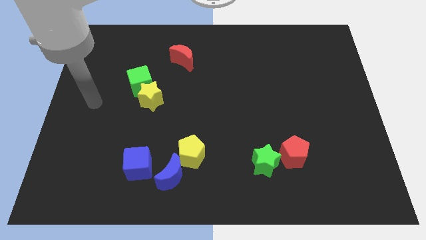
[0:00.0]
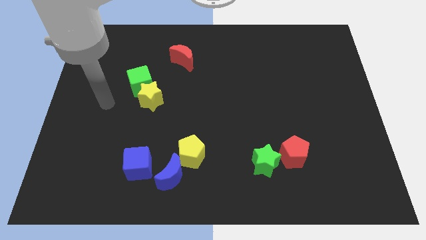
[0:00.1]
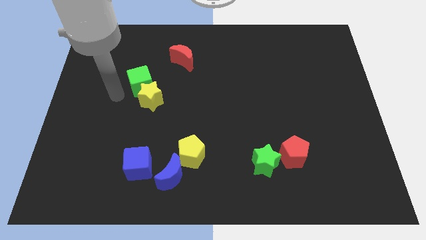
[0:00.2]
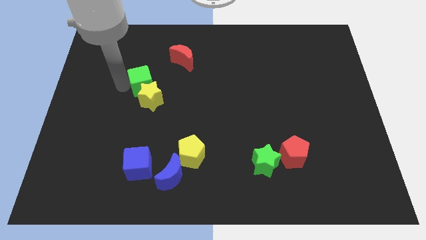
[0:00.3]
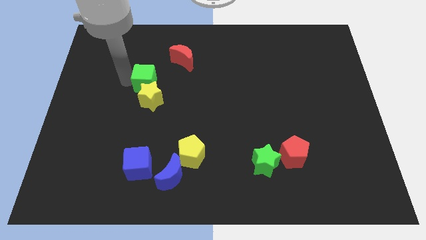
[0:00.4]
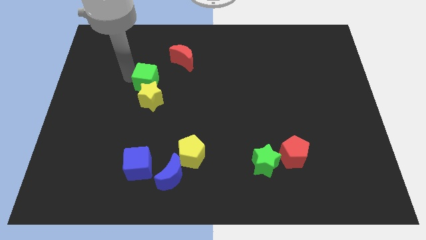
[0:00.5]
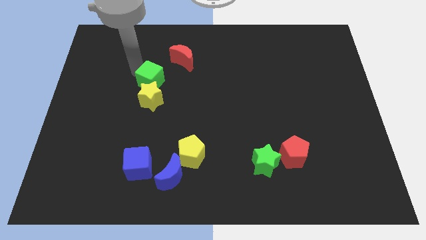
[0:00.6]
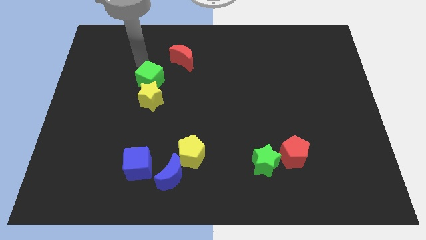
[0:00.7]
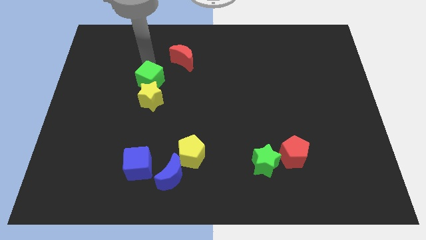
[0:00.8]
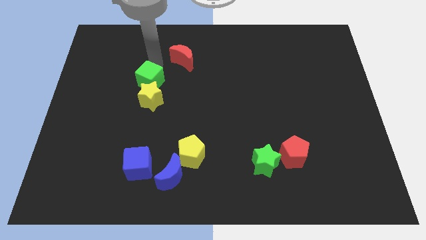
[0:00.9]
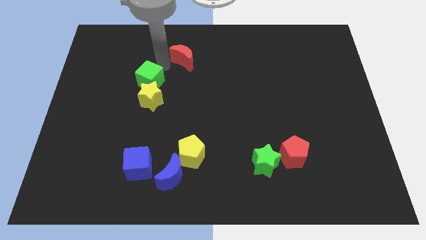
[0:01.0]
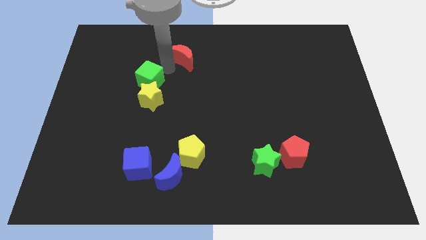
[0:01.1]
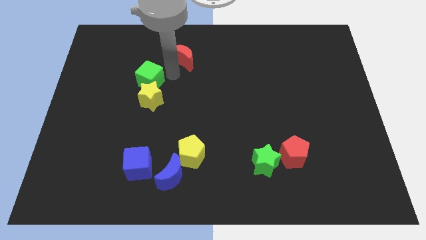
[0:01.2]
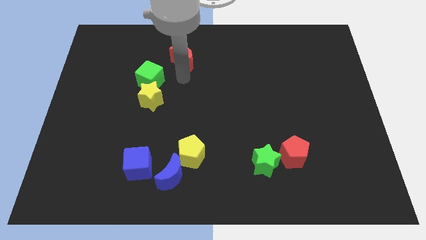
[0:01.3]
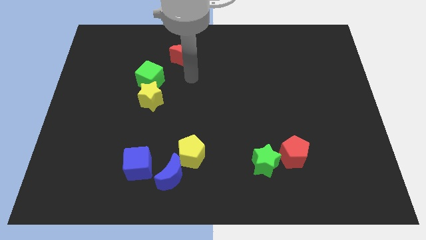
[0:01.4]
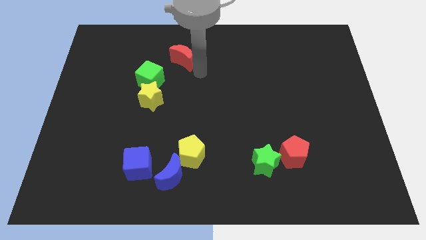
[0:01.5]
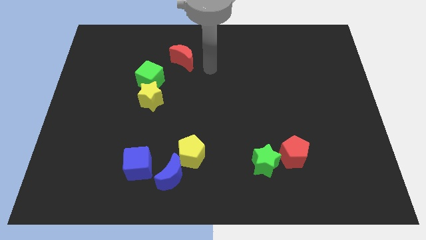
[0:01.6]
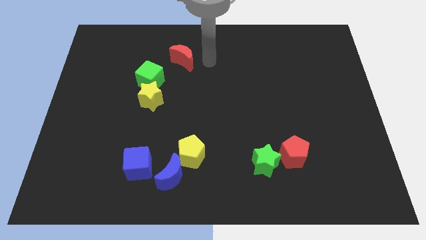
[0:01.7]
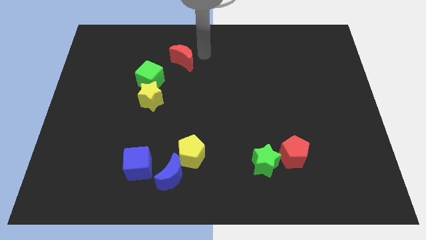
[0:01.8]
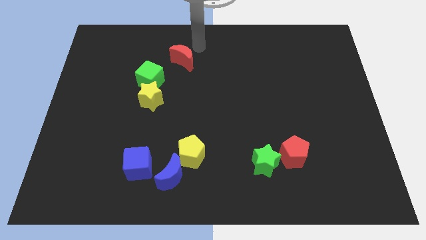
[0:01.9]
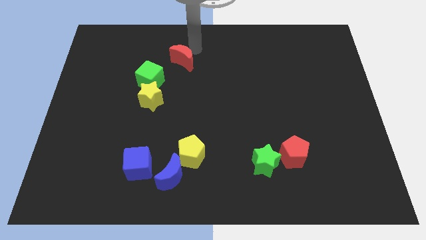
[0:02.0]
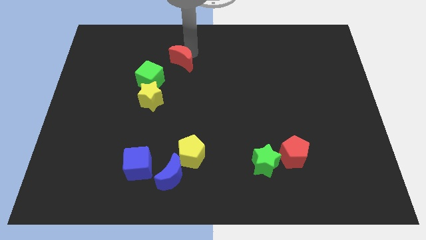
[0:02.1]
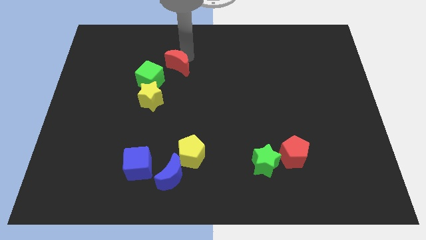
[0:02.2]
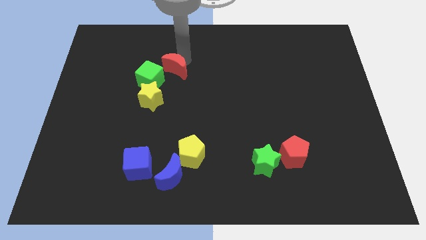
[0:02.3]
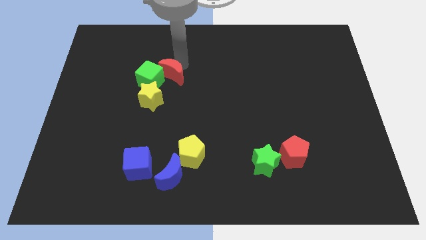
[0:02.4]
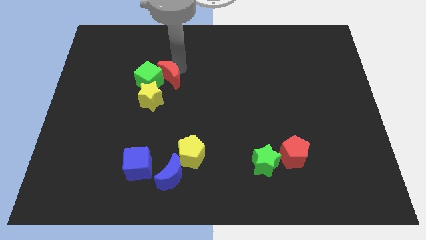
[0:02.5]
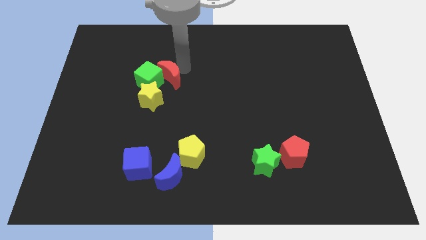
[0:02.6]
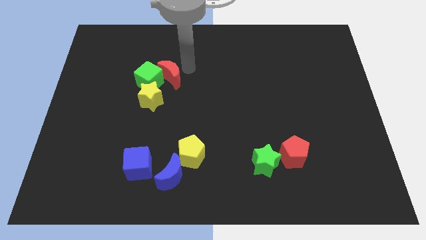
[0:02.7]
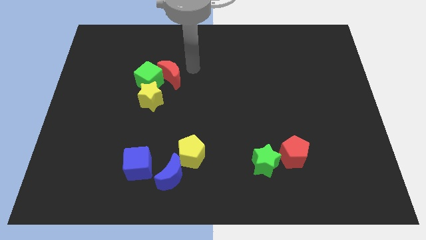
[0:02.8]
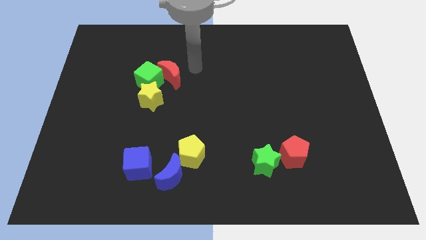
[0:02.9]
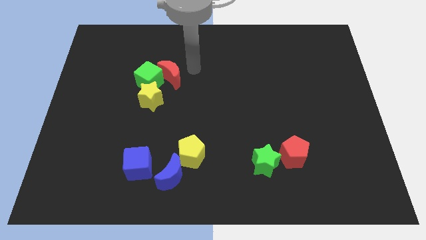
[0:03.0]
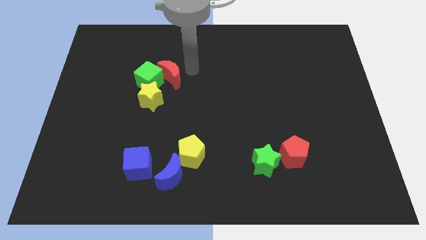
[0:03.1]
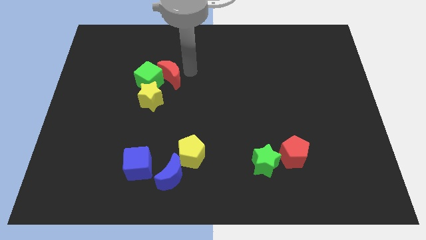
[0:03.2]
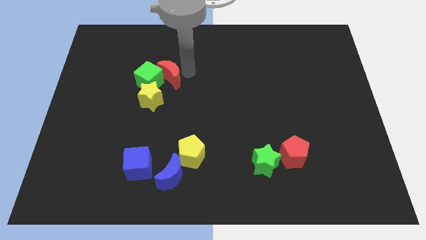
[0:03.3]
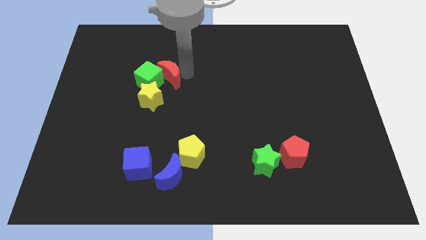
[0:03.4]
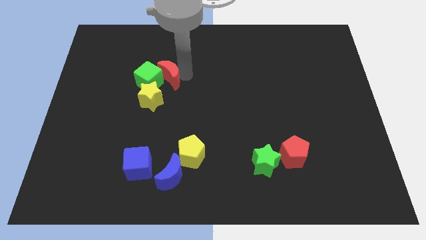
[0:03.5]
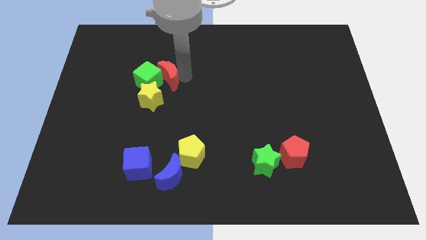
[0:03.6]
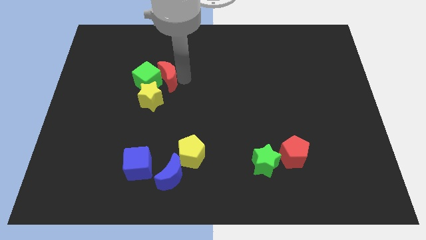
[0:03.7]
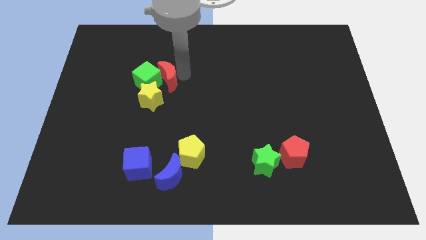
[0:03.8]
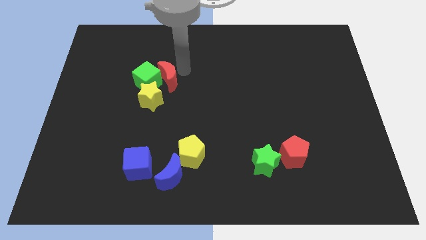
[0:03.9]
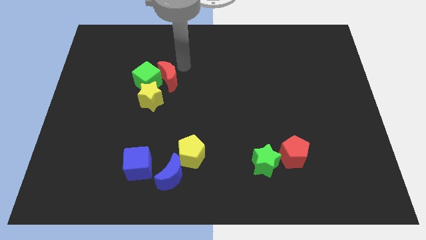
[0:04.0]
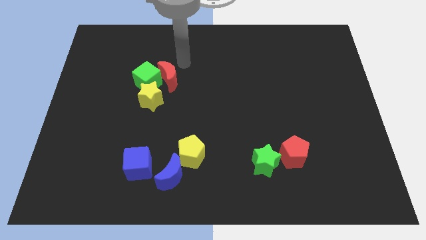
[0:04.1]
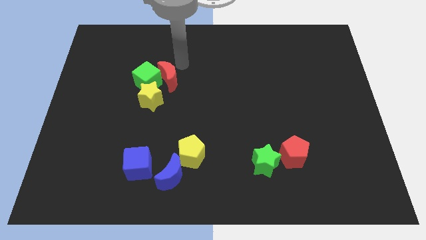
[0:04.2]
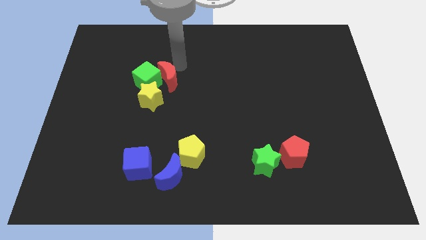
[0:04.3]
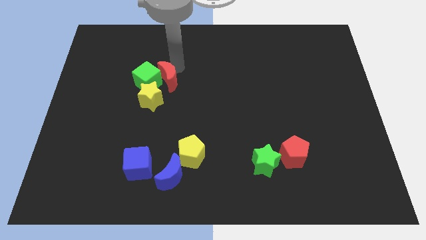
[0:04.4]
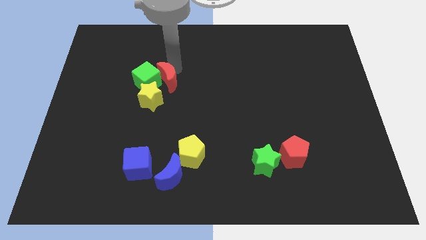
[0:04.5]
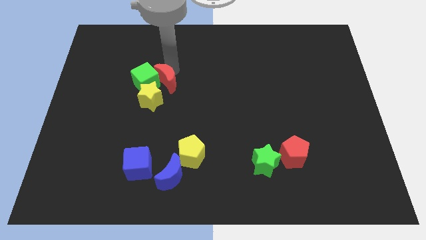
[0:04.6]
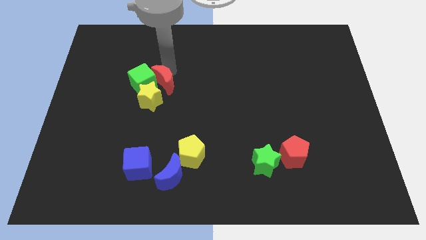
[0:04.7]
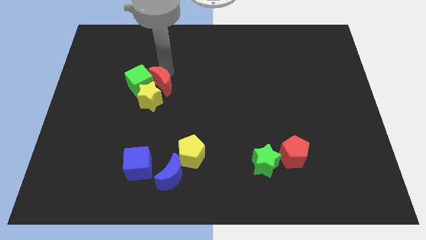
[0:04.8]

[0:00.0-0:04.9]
put the red moon next to the yellow star

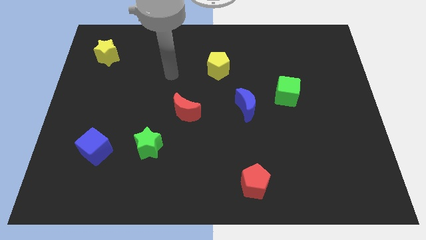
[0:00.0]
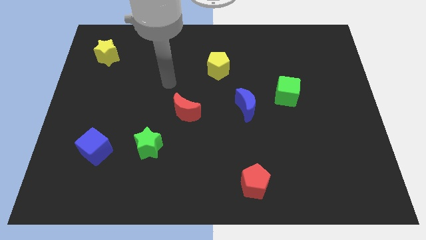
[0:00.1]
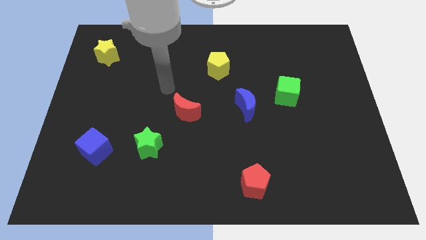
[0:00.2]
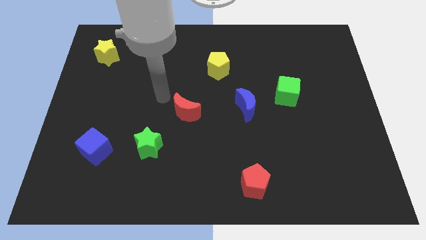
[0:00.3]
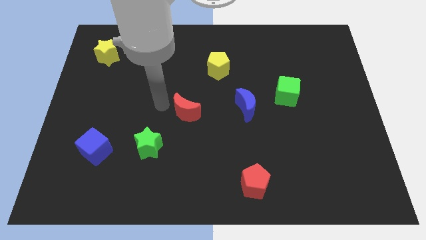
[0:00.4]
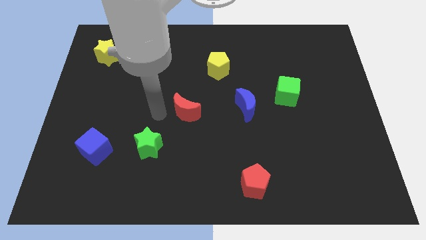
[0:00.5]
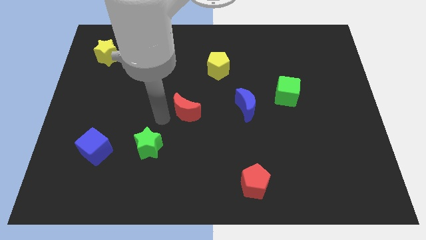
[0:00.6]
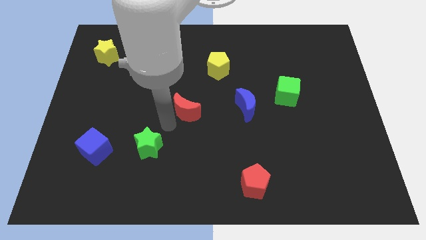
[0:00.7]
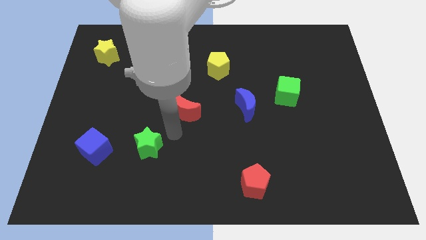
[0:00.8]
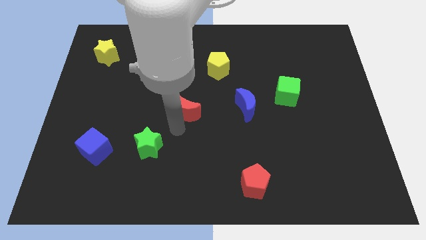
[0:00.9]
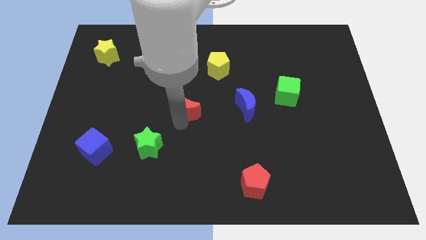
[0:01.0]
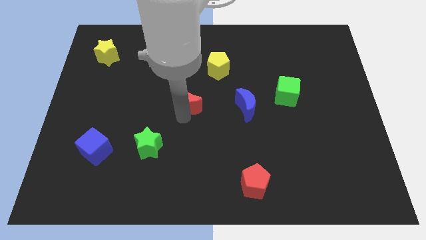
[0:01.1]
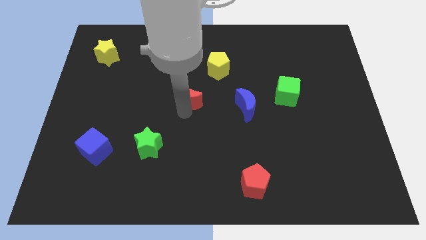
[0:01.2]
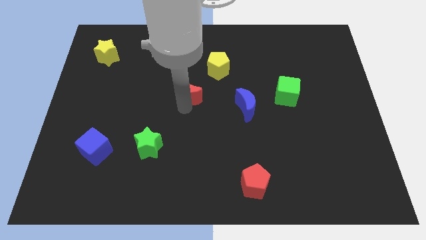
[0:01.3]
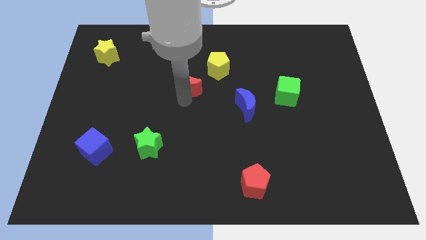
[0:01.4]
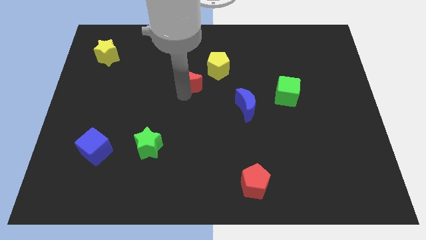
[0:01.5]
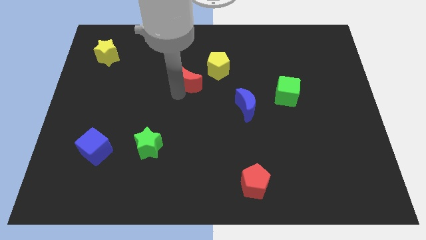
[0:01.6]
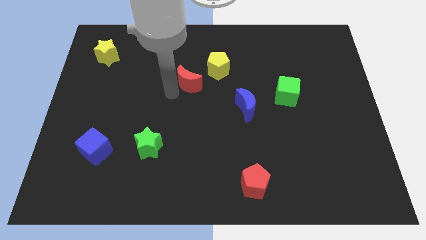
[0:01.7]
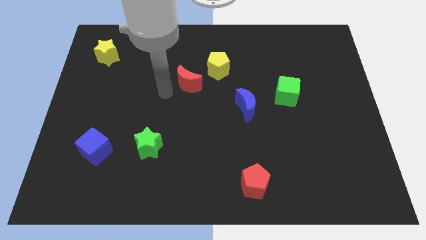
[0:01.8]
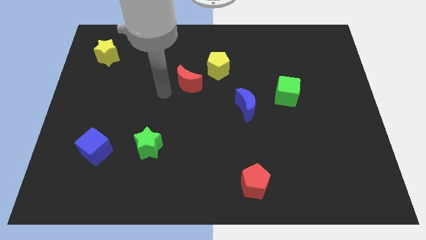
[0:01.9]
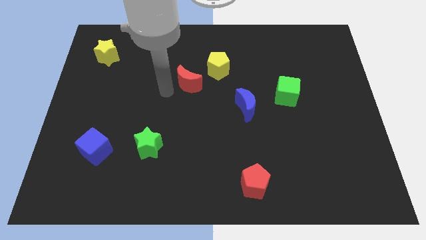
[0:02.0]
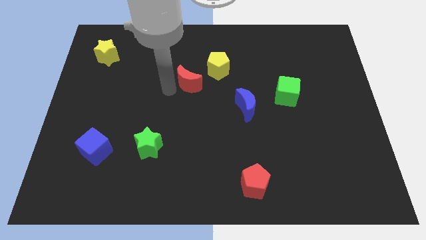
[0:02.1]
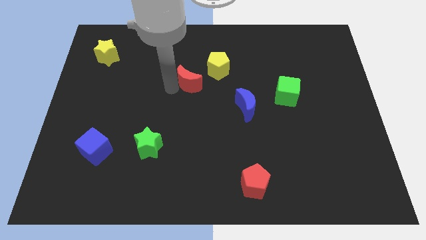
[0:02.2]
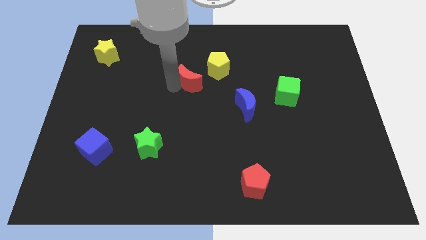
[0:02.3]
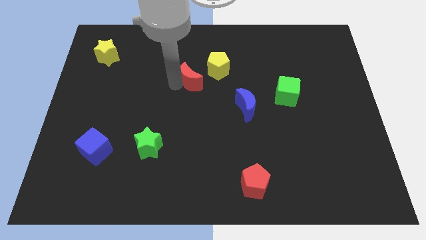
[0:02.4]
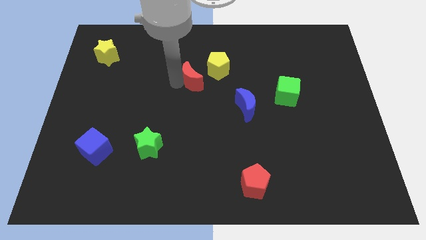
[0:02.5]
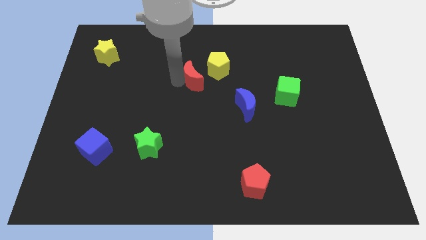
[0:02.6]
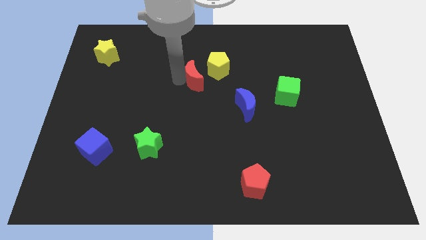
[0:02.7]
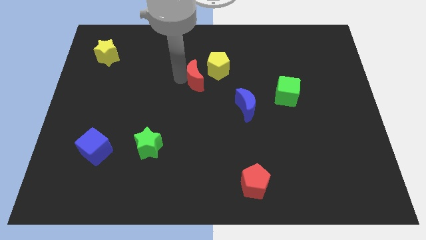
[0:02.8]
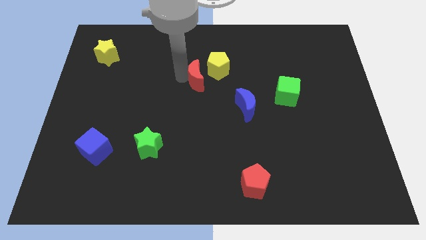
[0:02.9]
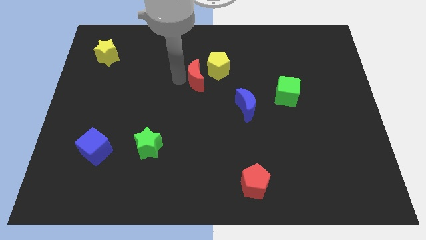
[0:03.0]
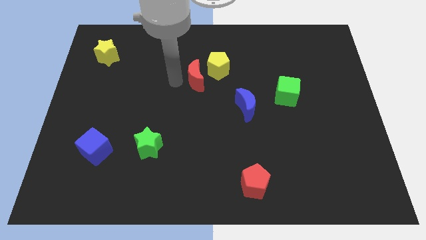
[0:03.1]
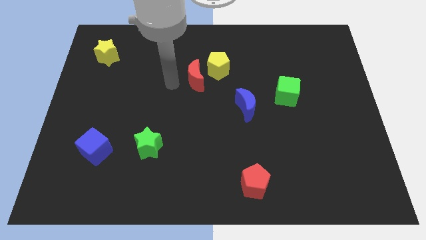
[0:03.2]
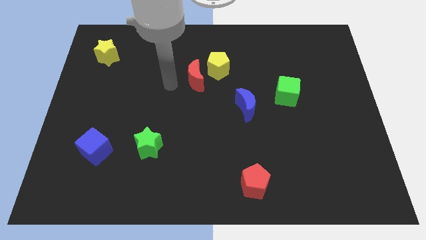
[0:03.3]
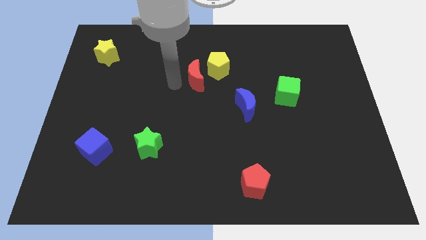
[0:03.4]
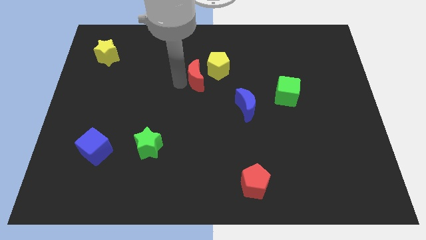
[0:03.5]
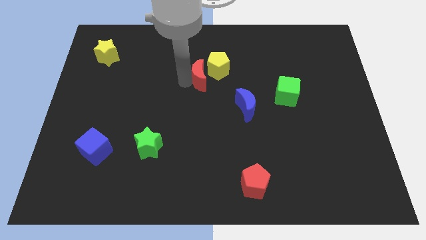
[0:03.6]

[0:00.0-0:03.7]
put the red moon towards the yellow pentagon
